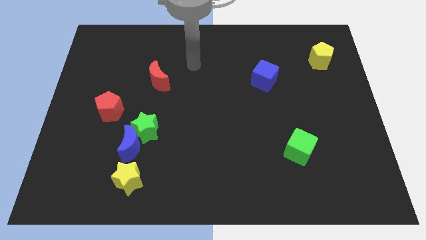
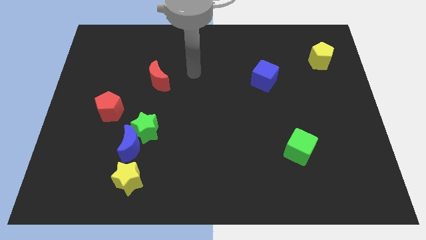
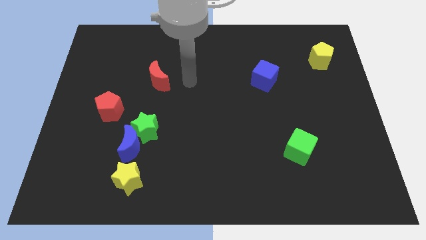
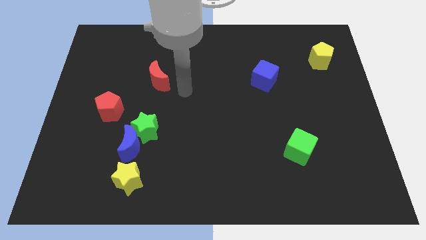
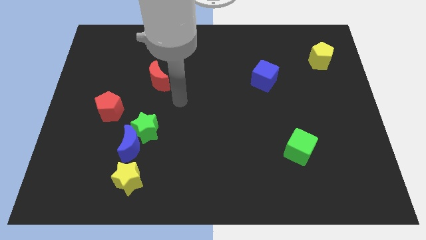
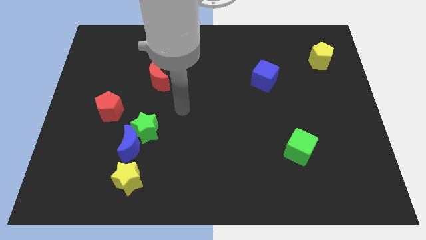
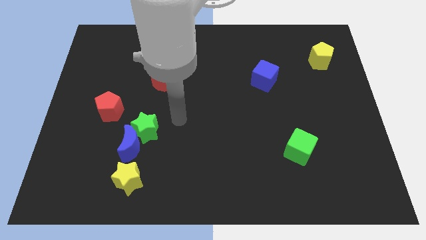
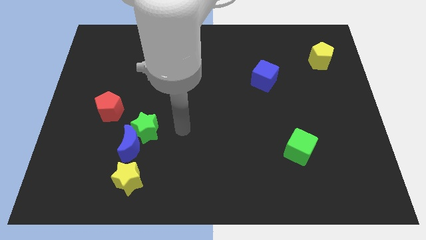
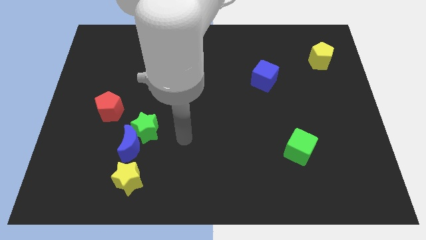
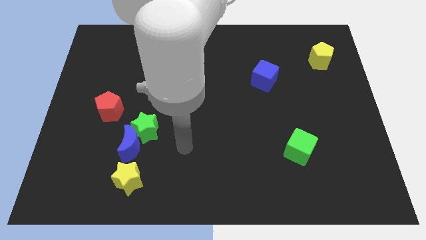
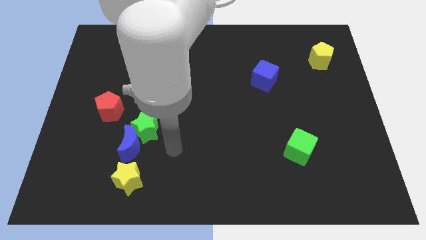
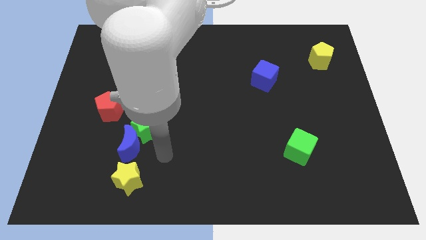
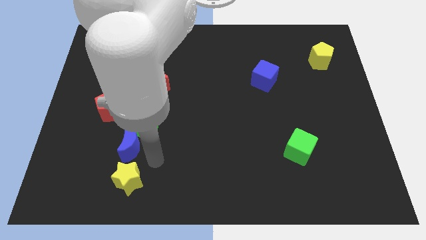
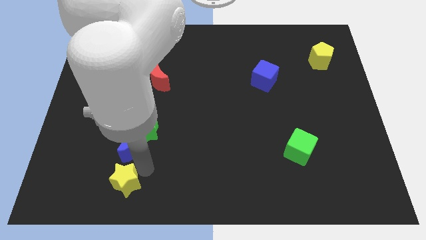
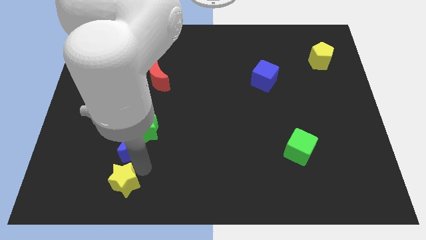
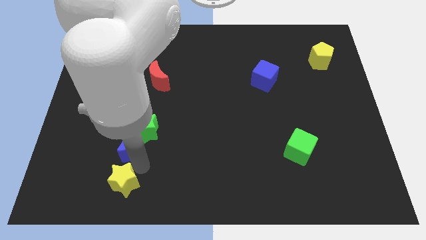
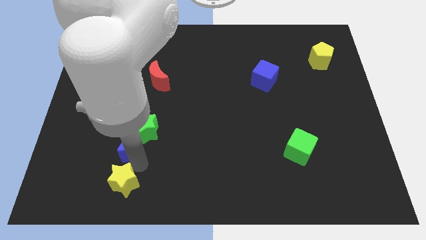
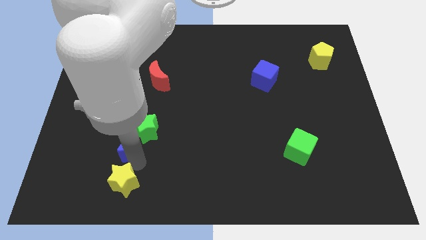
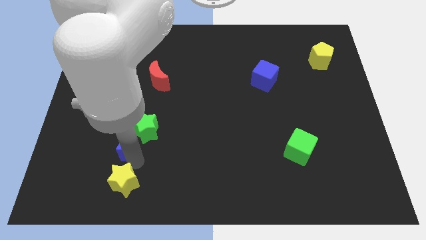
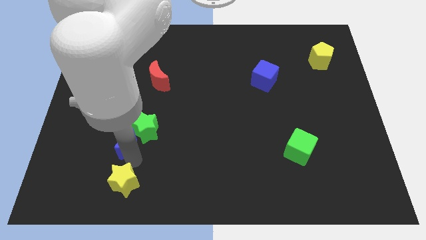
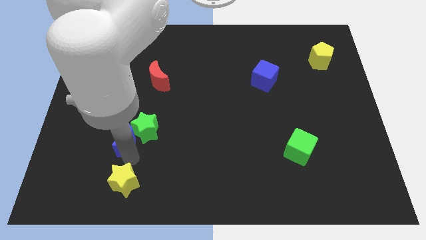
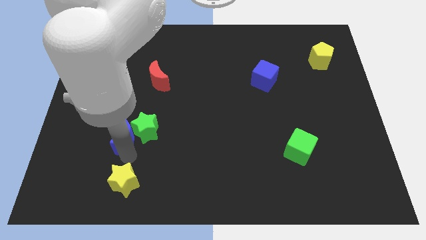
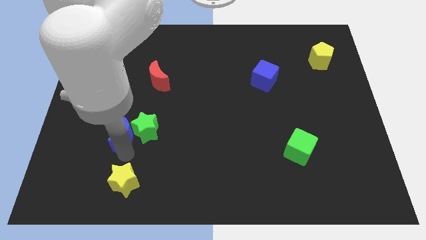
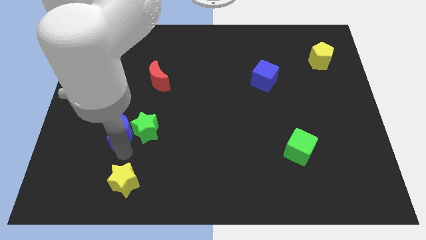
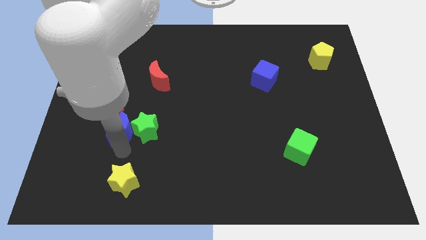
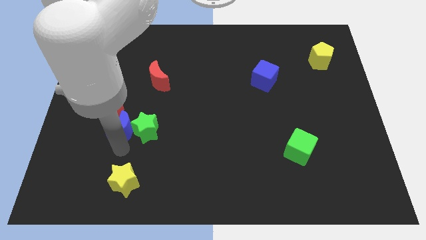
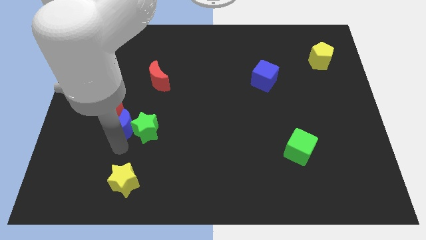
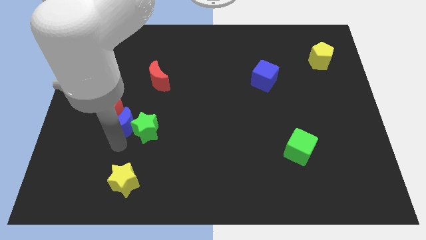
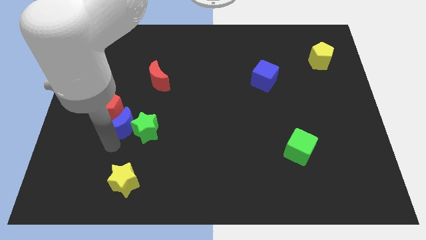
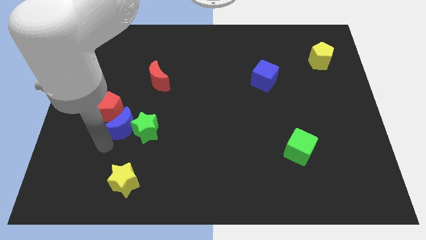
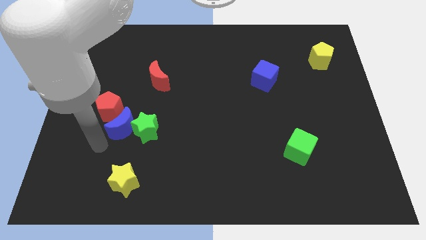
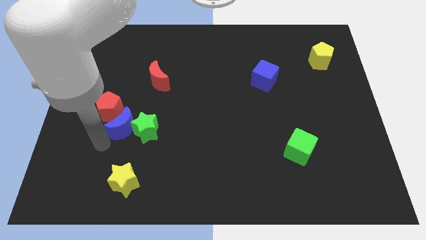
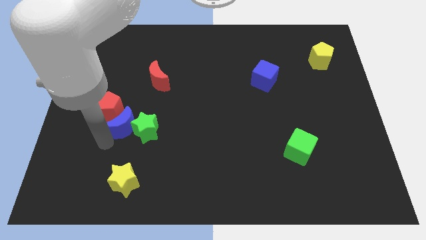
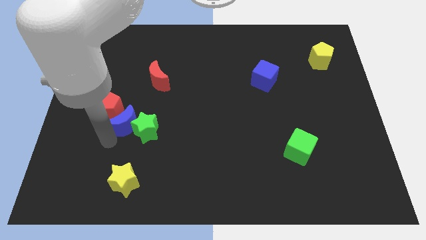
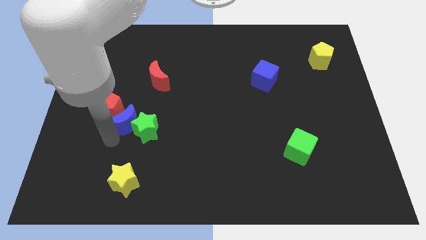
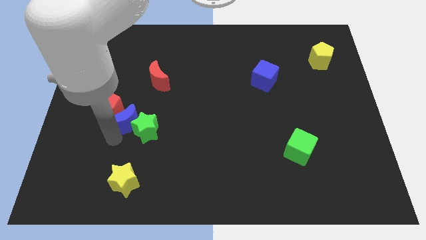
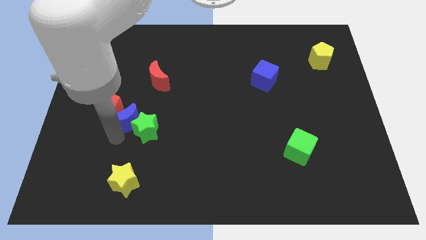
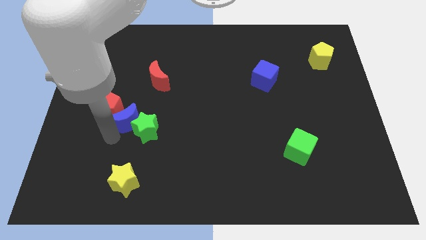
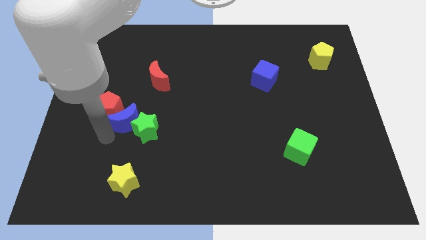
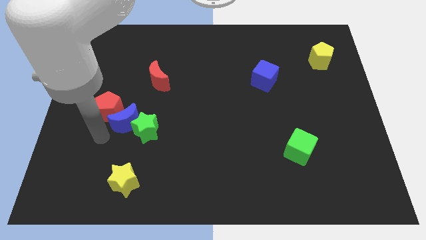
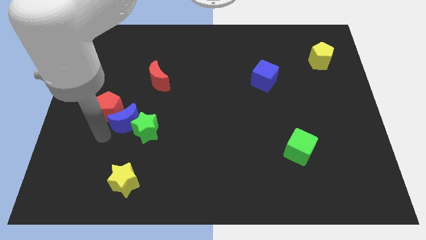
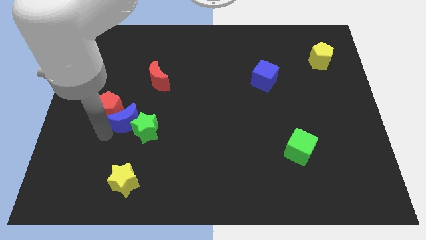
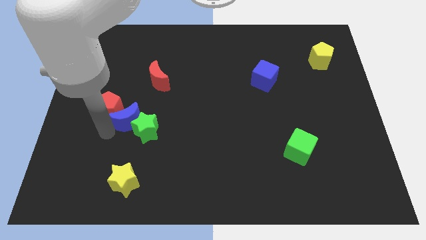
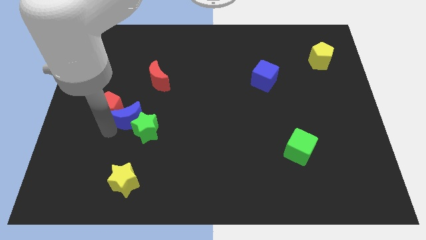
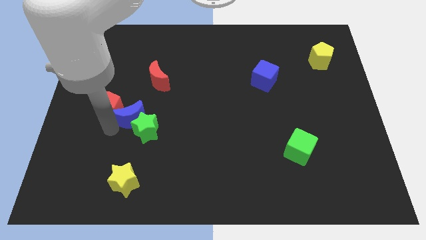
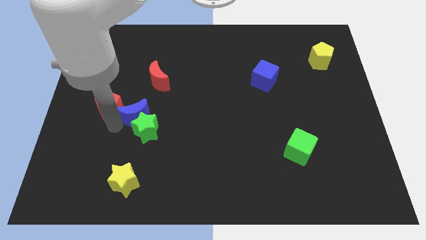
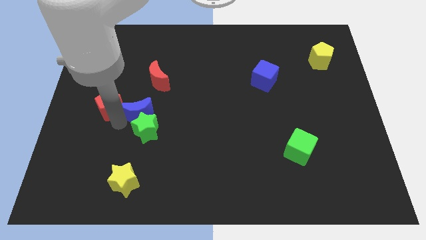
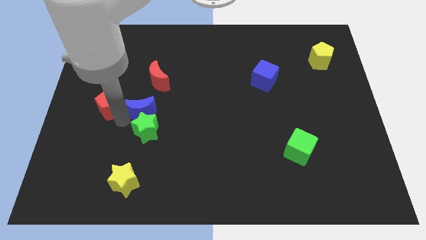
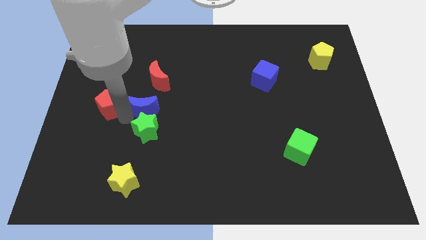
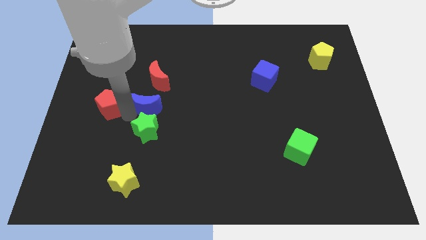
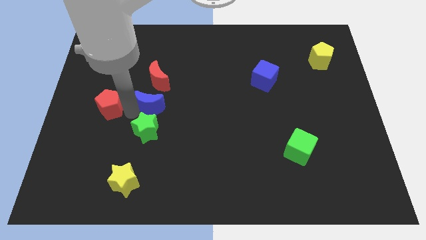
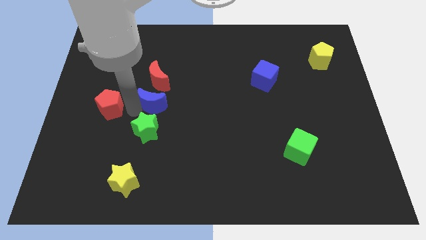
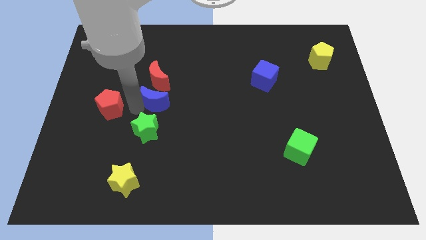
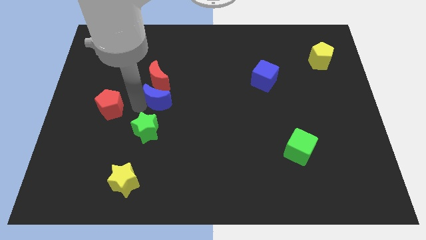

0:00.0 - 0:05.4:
slide the blue moon diagonally down and to the right of the red moon

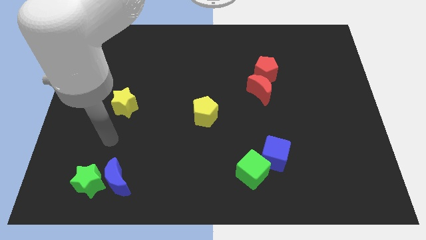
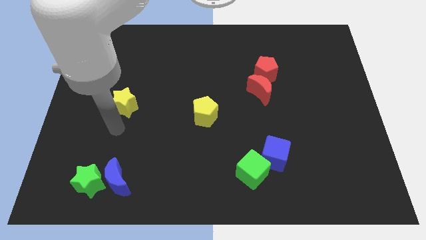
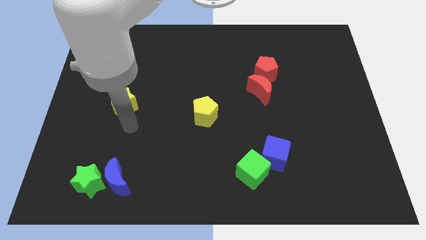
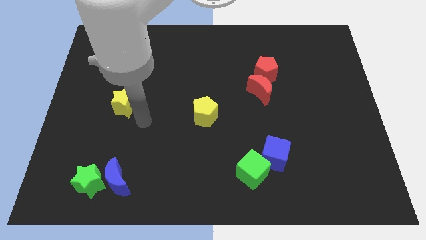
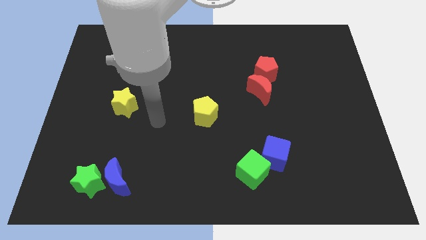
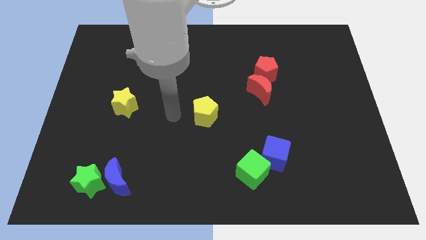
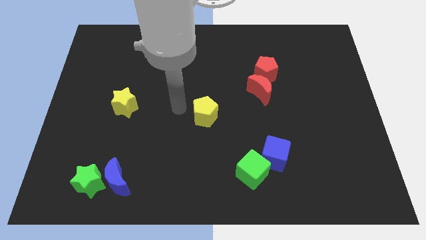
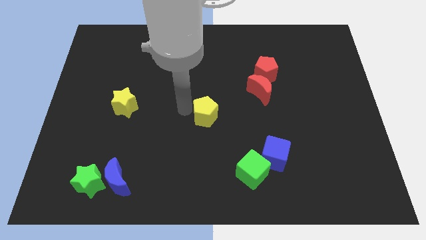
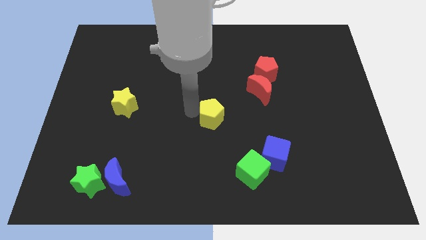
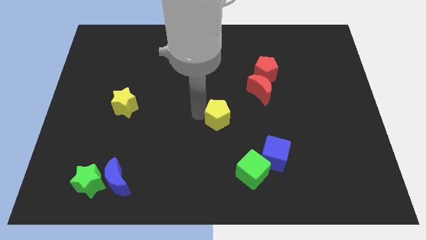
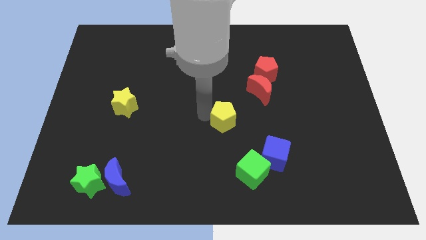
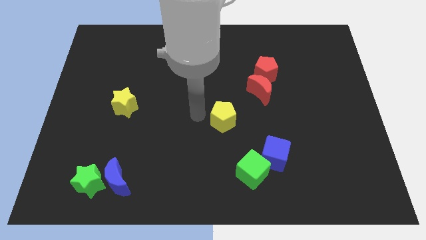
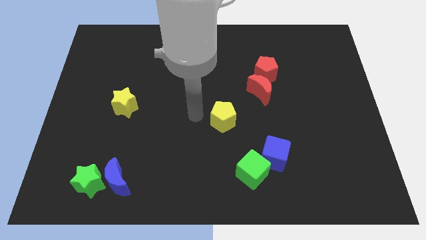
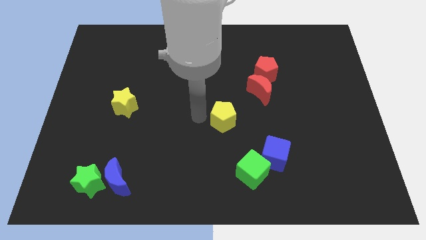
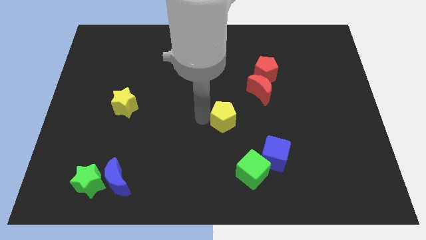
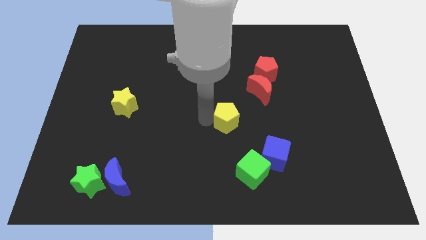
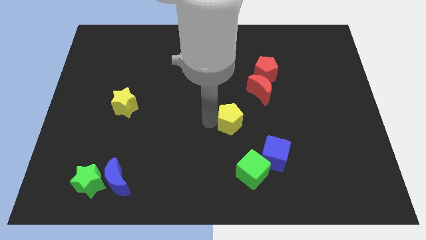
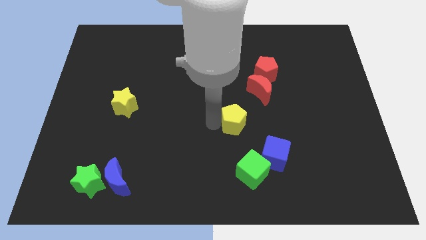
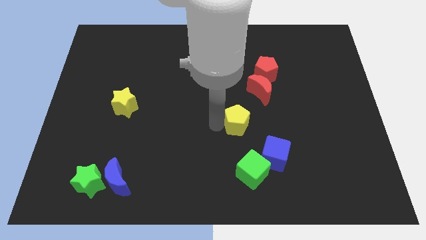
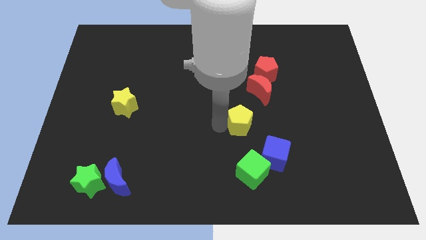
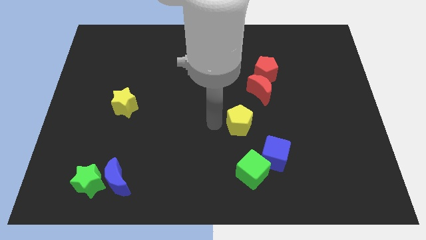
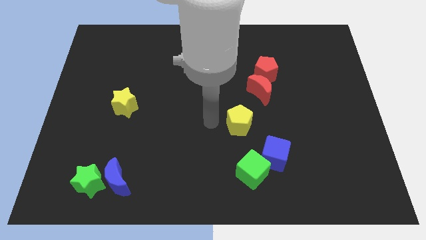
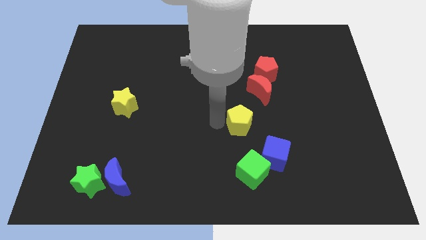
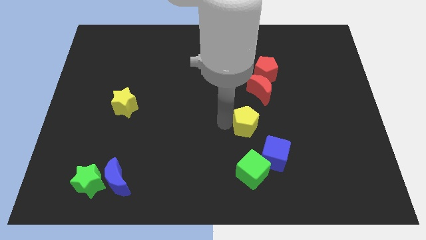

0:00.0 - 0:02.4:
move the yellow pentagon to the bottom of the red moon
